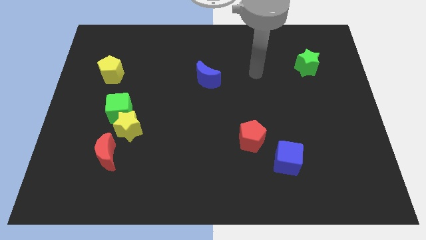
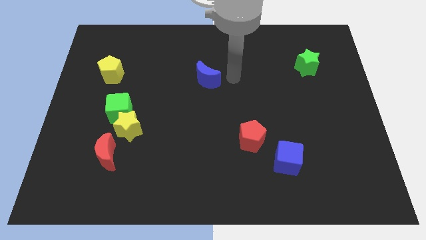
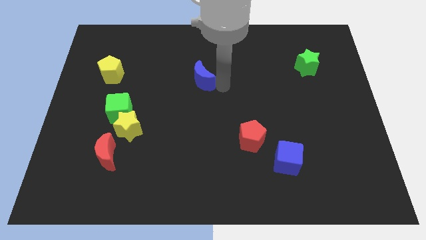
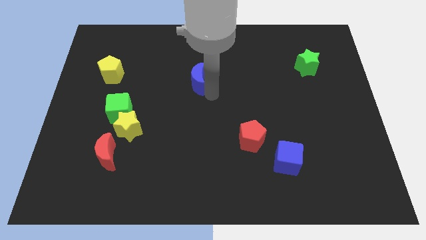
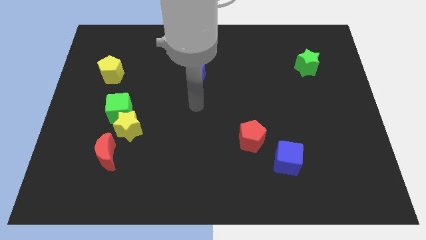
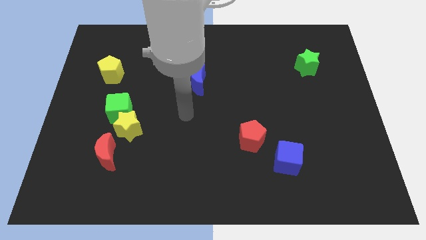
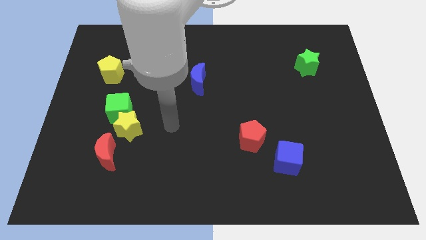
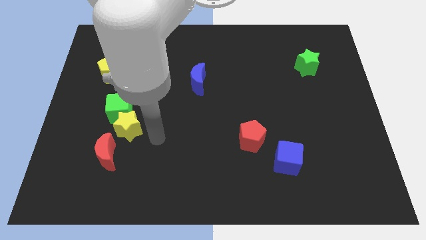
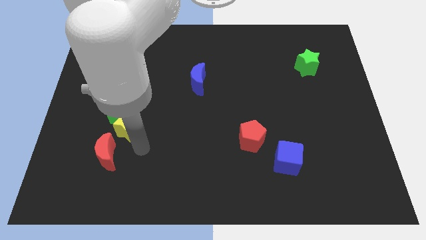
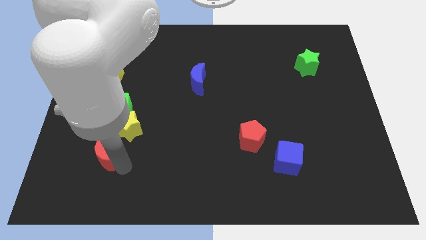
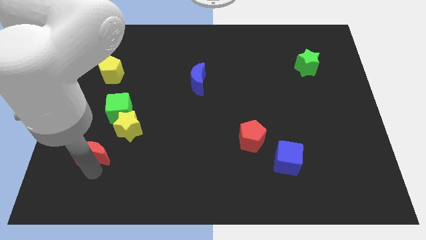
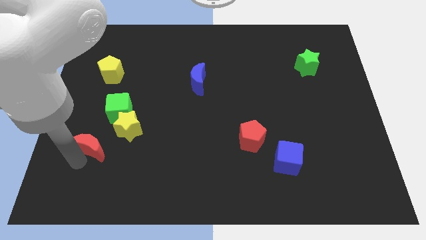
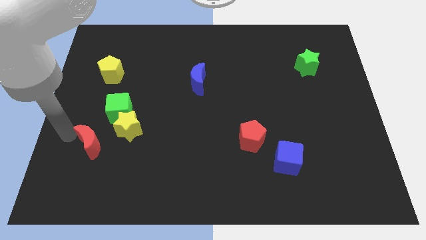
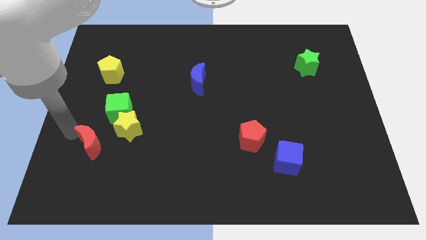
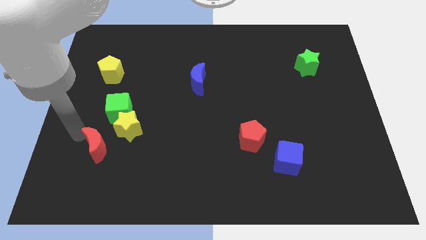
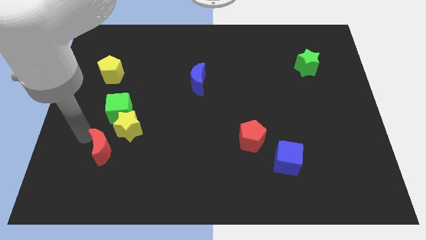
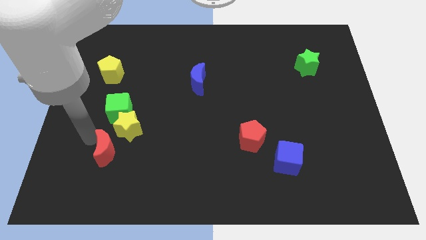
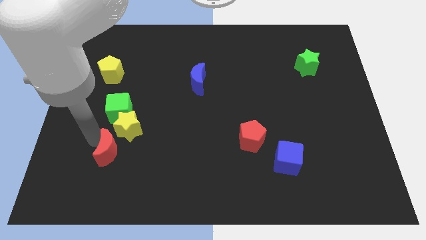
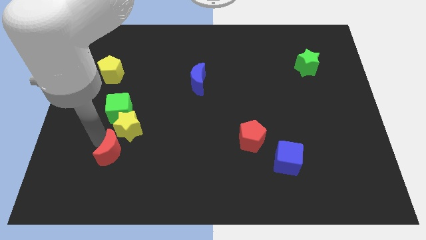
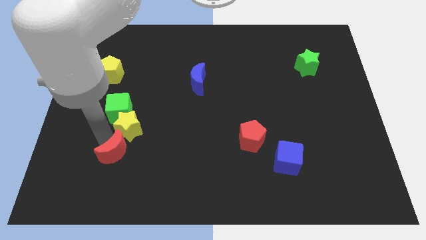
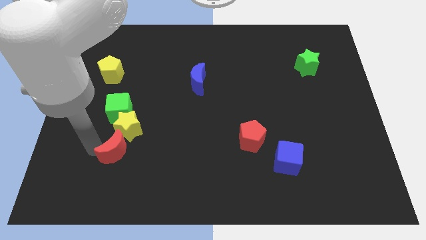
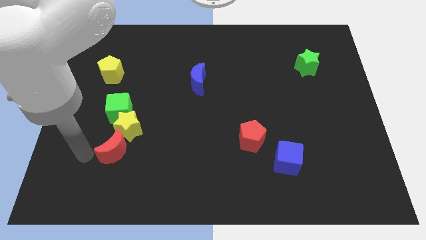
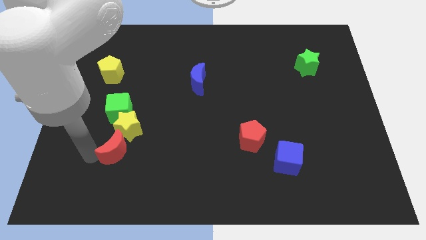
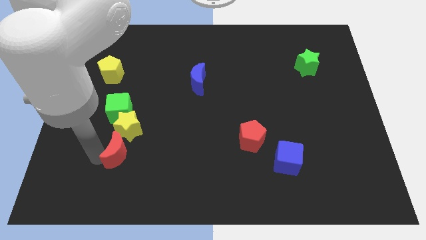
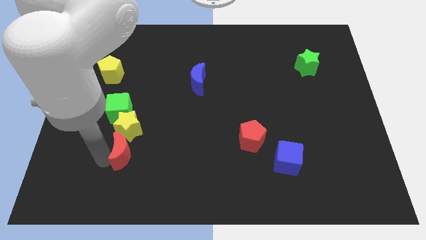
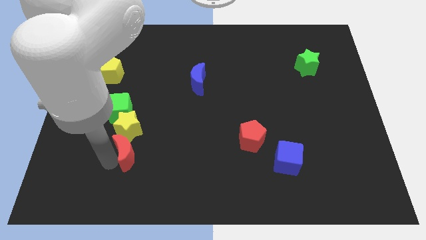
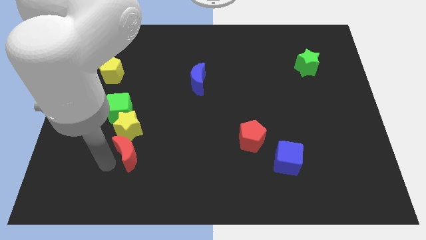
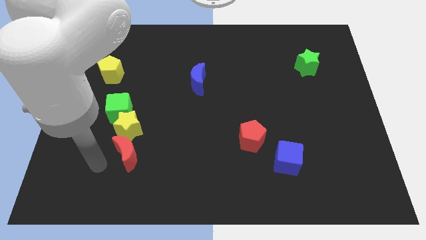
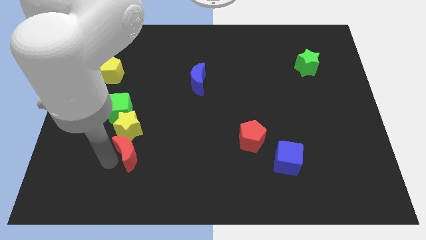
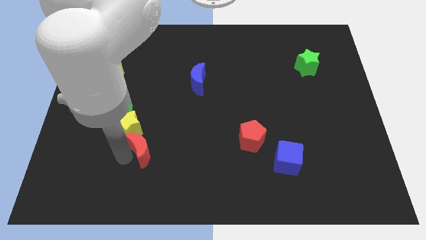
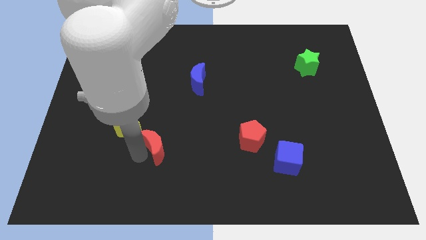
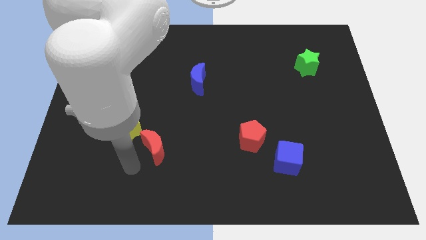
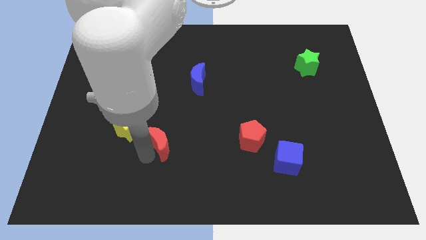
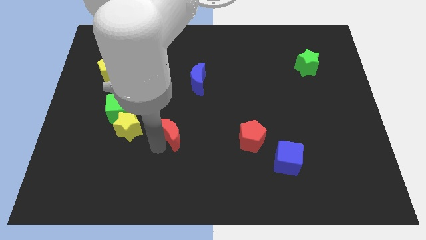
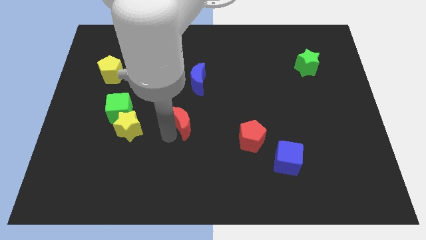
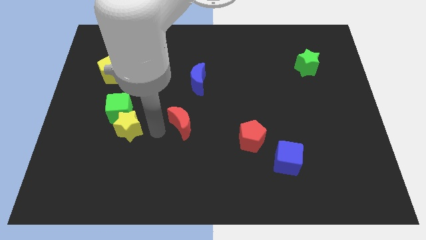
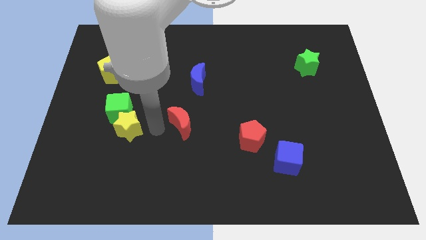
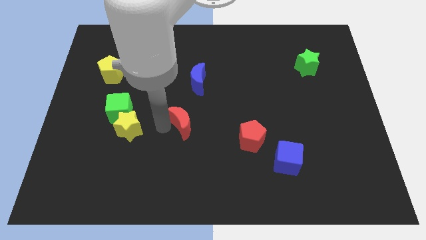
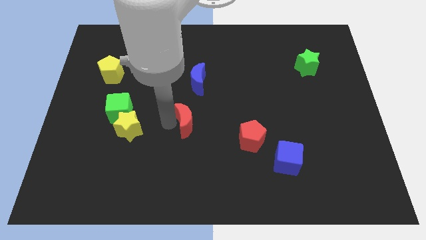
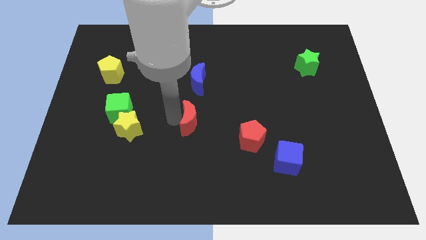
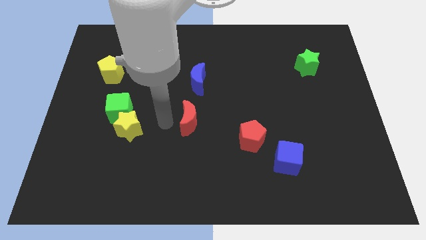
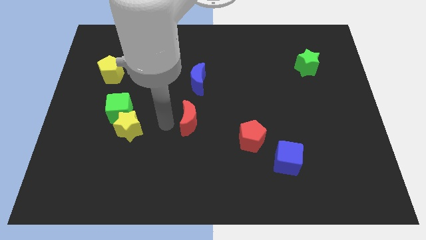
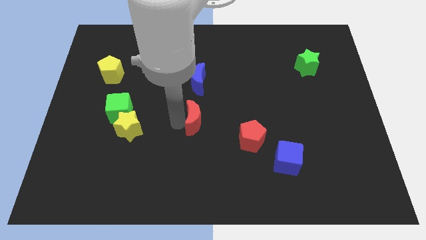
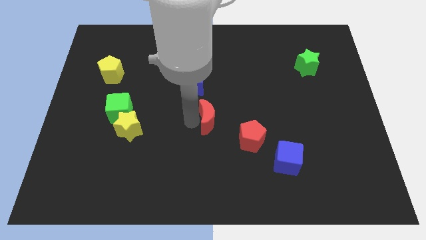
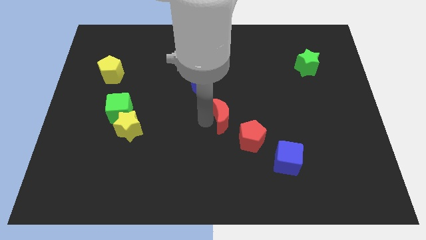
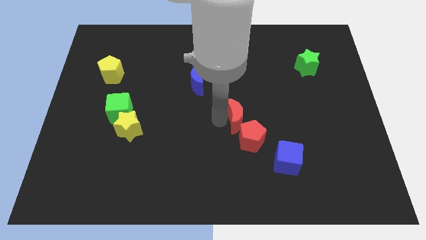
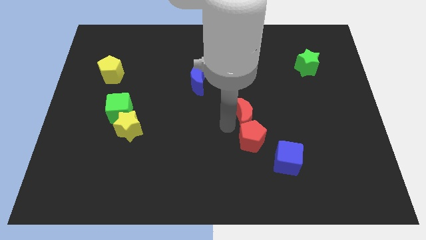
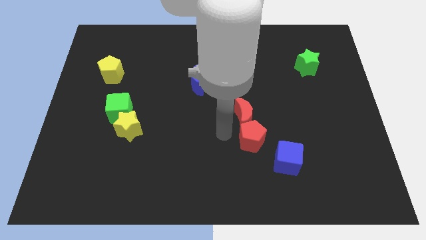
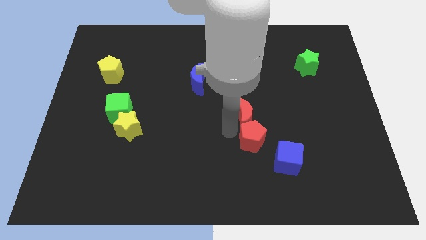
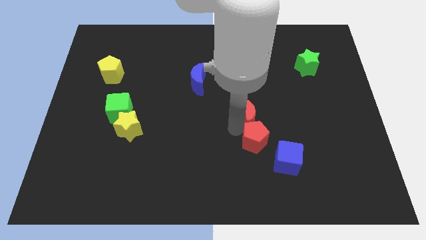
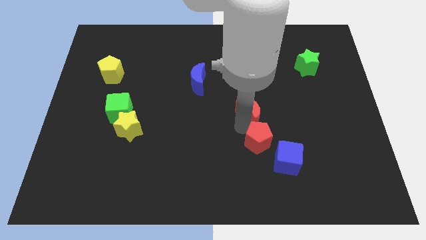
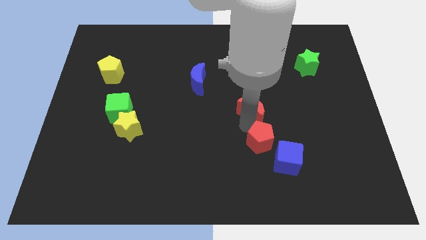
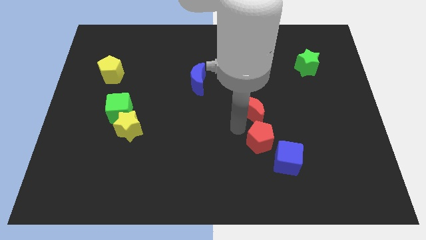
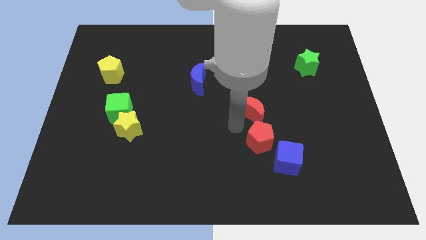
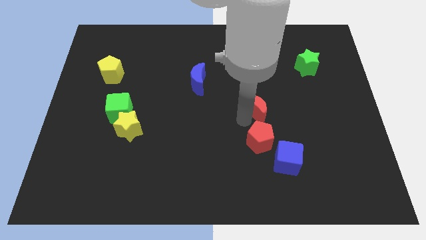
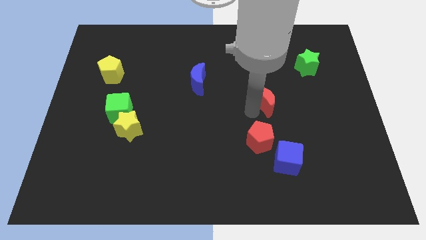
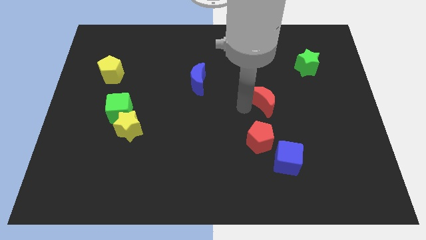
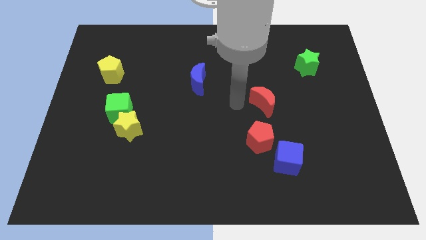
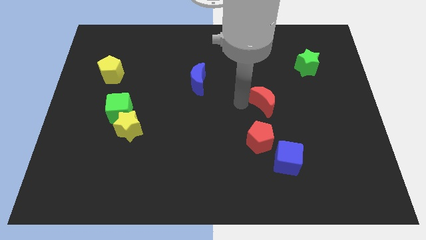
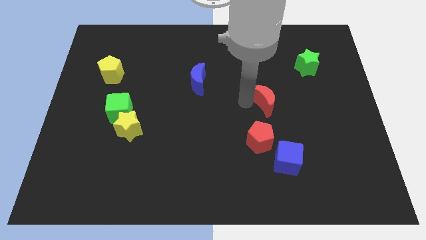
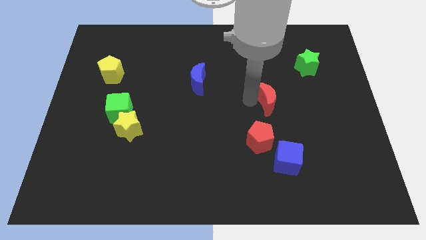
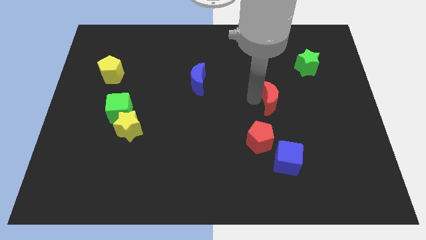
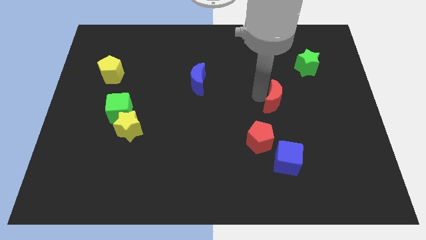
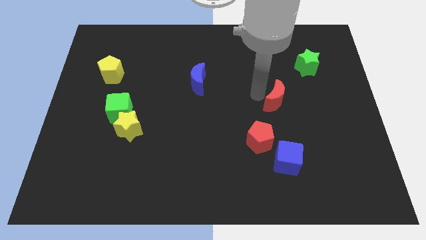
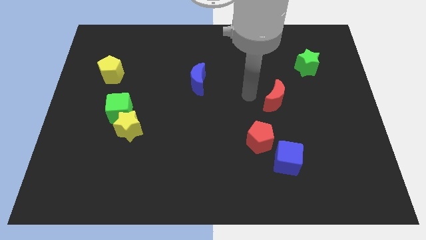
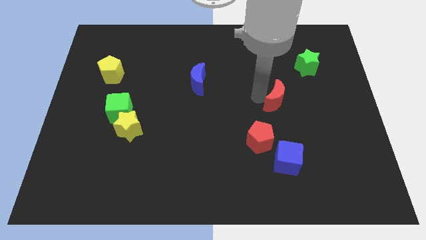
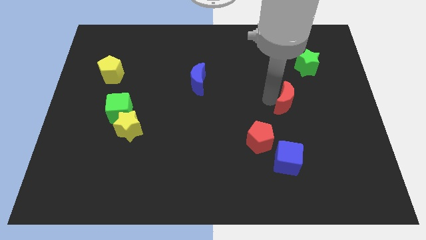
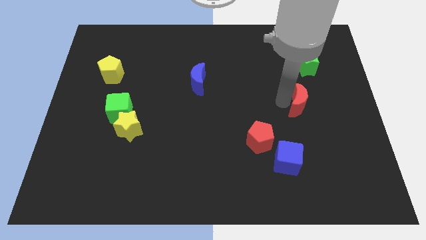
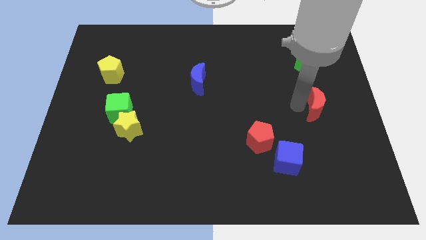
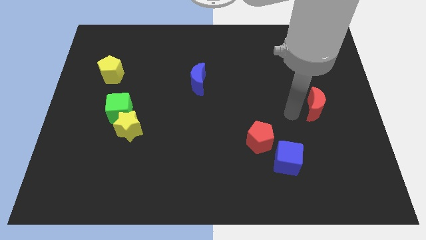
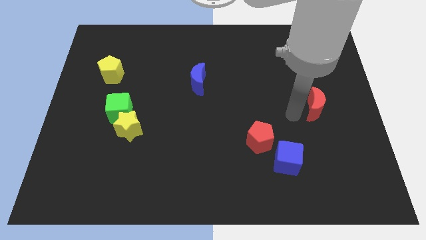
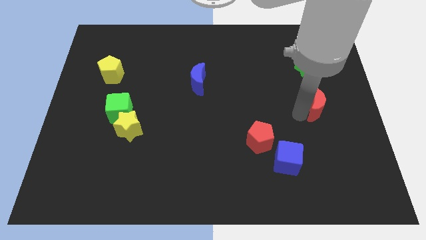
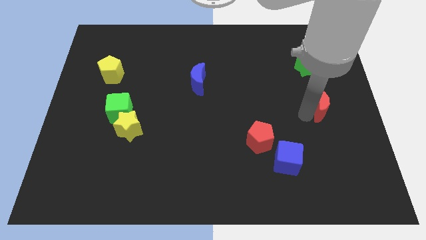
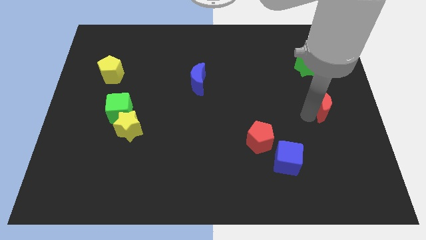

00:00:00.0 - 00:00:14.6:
slide the red moon to the right side
